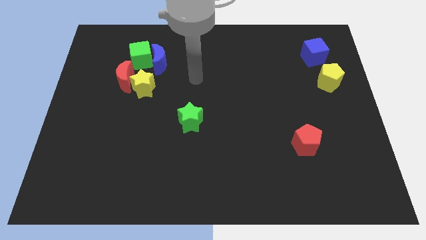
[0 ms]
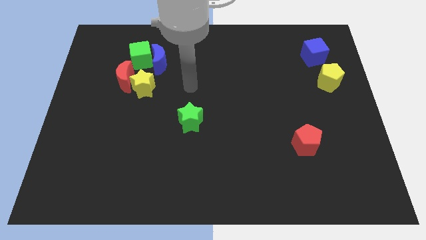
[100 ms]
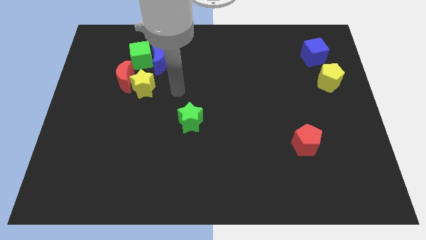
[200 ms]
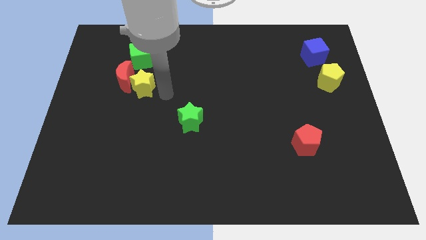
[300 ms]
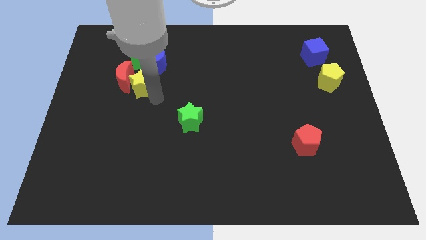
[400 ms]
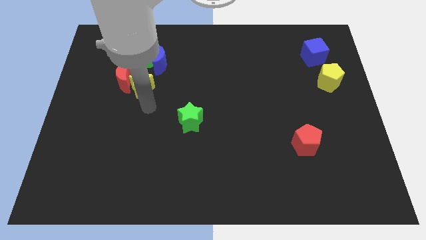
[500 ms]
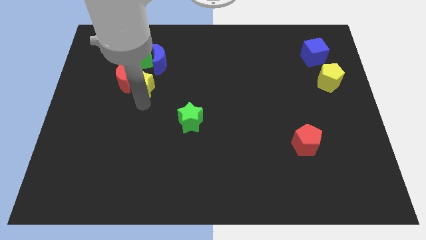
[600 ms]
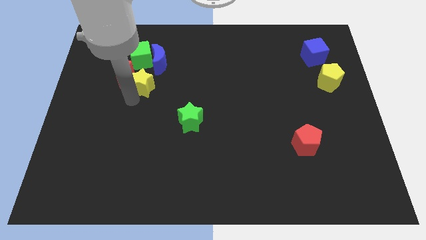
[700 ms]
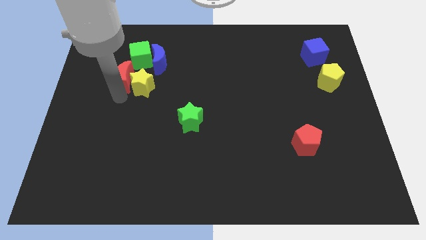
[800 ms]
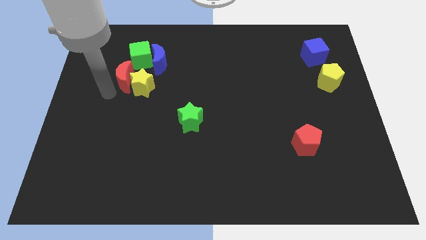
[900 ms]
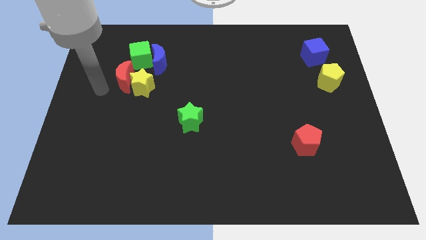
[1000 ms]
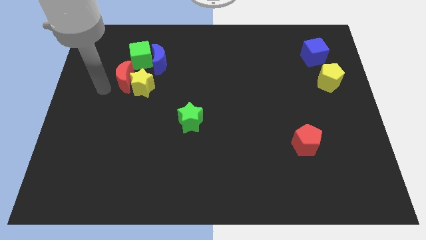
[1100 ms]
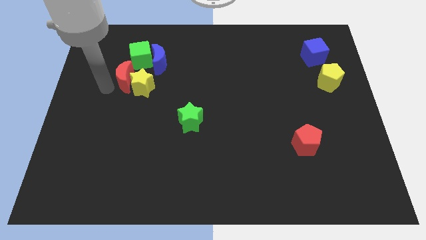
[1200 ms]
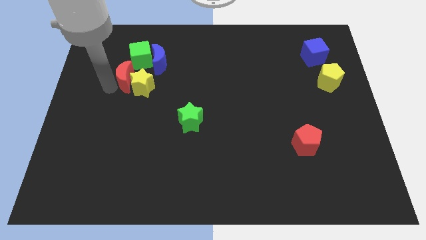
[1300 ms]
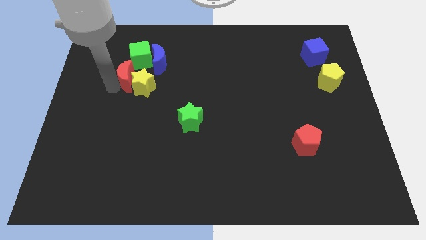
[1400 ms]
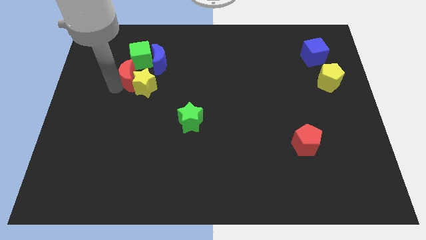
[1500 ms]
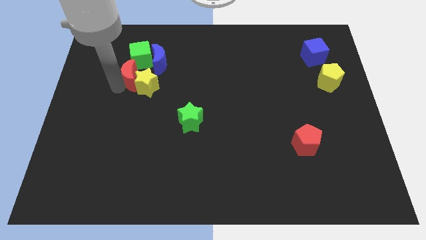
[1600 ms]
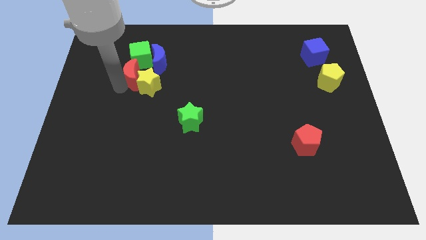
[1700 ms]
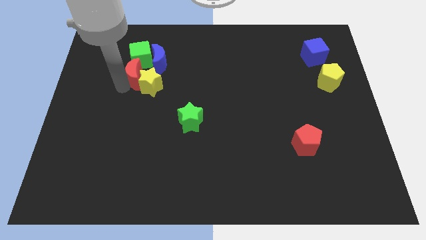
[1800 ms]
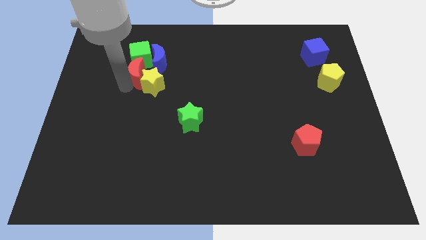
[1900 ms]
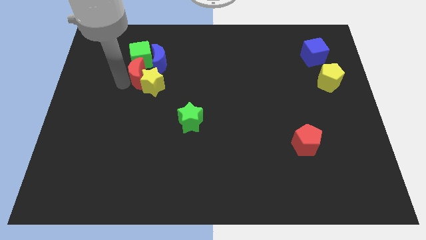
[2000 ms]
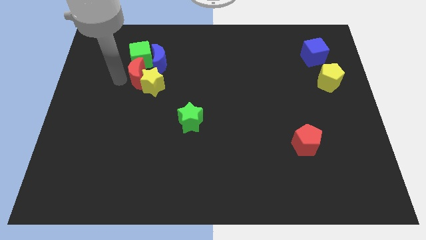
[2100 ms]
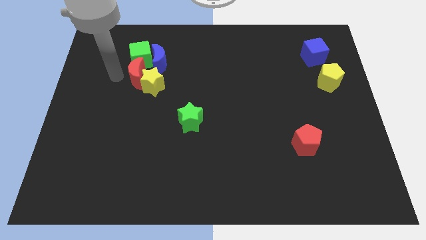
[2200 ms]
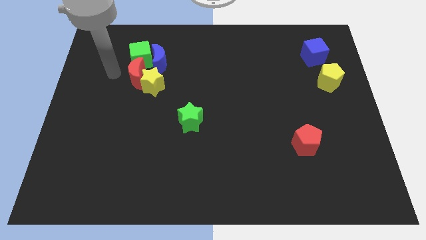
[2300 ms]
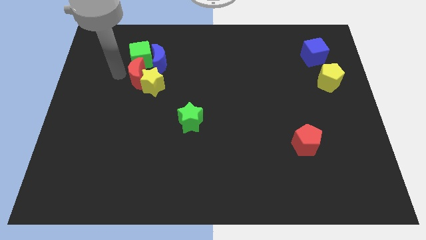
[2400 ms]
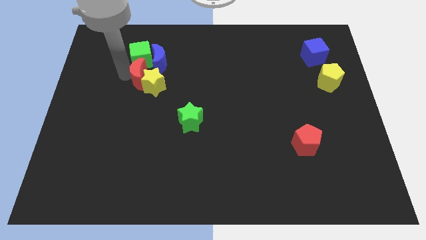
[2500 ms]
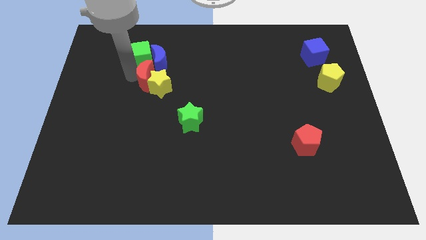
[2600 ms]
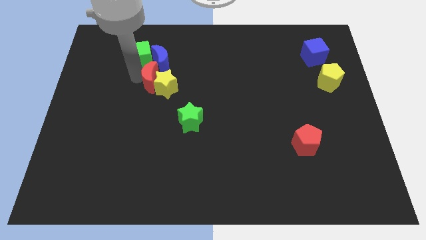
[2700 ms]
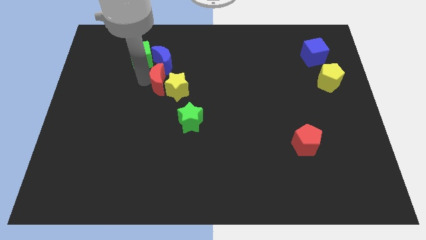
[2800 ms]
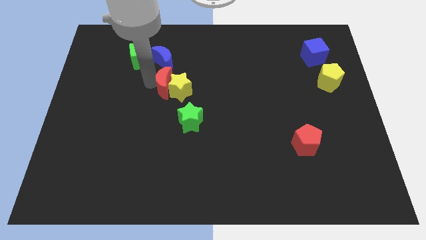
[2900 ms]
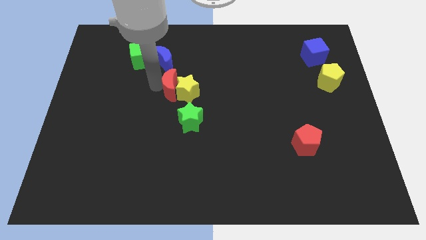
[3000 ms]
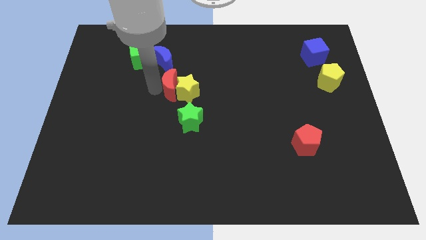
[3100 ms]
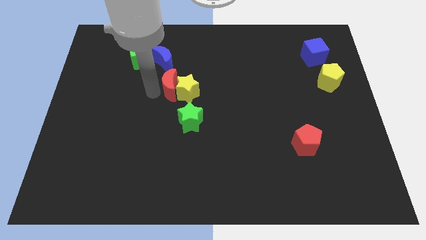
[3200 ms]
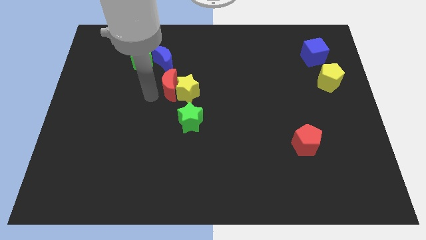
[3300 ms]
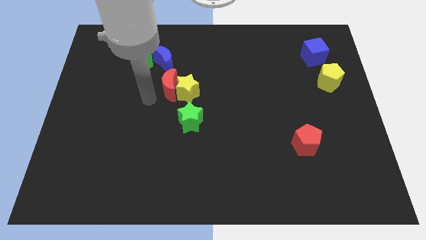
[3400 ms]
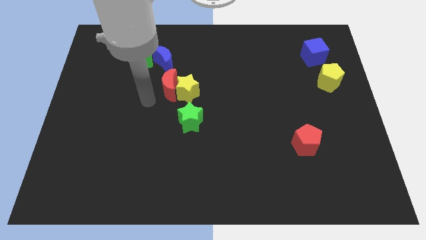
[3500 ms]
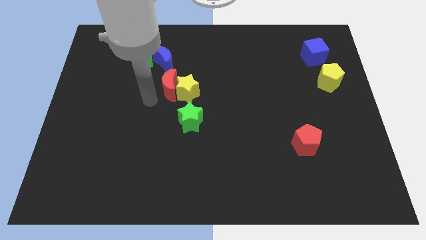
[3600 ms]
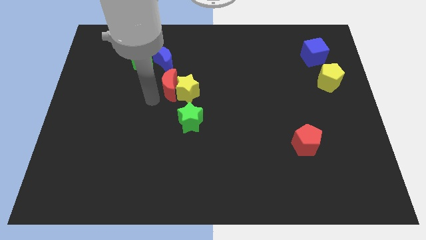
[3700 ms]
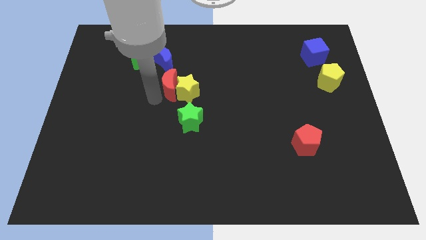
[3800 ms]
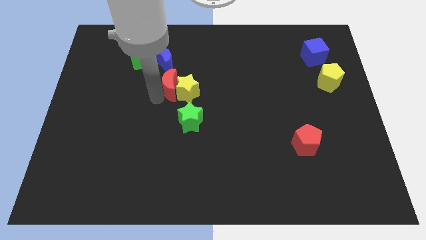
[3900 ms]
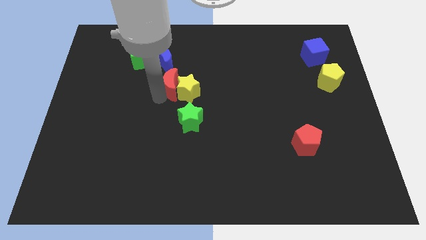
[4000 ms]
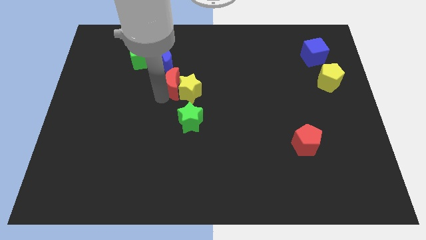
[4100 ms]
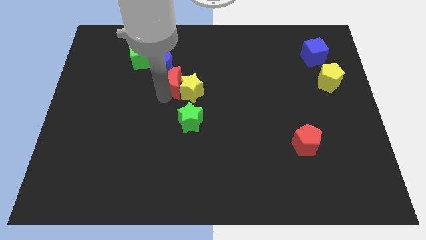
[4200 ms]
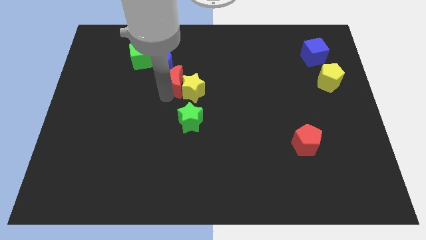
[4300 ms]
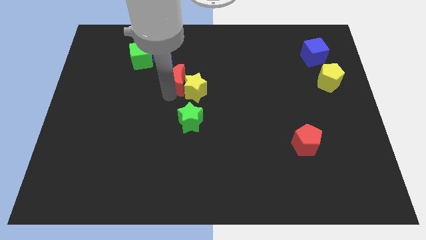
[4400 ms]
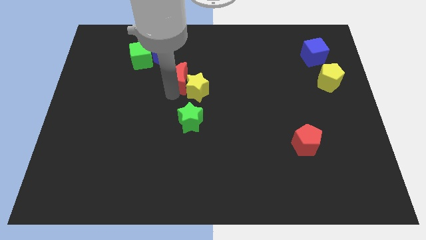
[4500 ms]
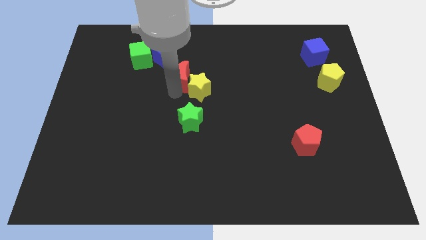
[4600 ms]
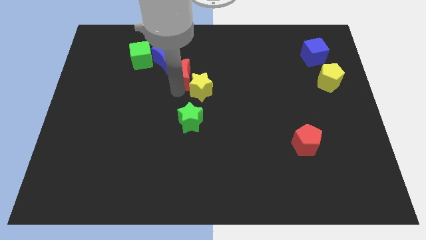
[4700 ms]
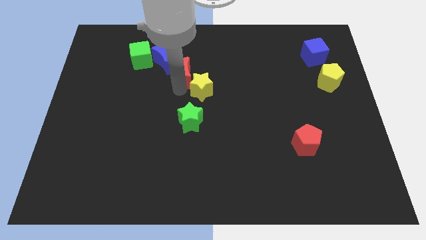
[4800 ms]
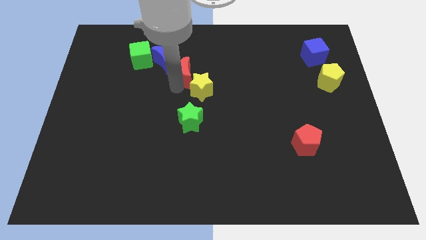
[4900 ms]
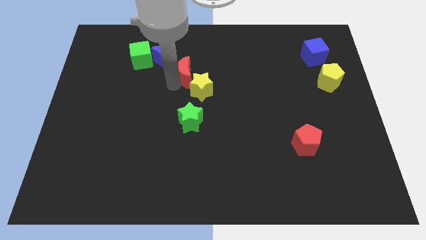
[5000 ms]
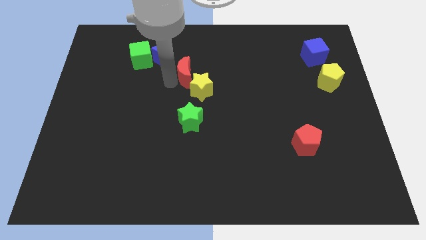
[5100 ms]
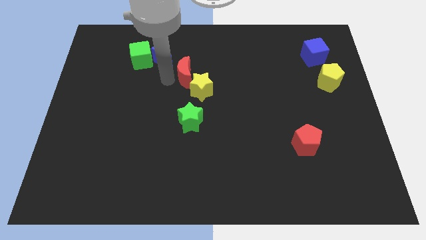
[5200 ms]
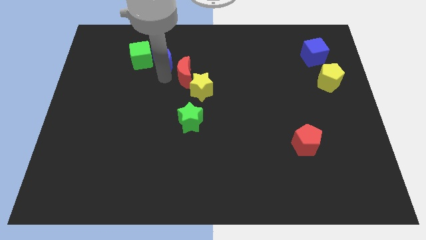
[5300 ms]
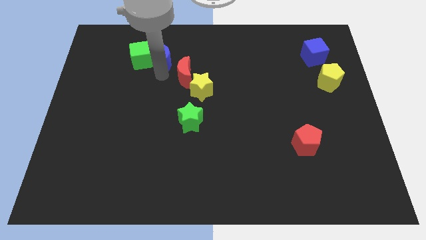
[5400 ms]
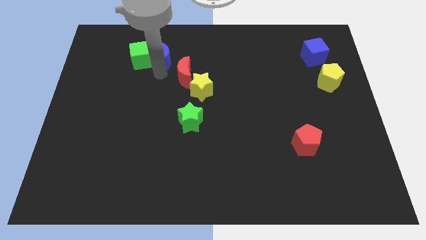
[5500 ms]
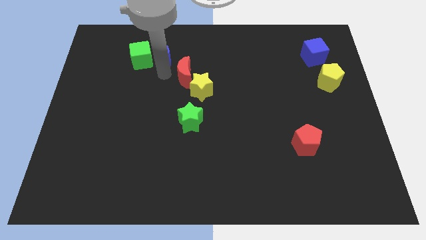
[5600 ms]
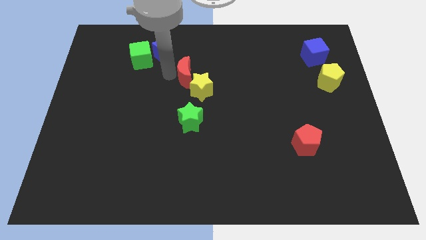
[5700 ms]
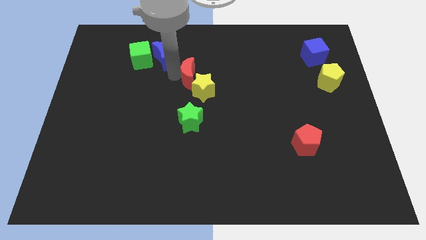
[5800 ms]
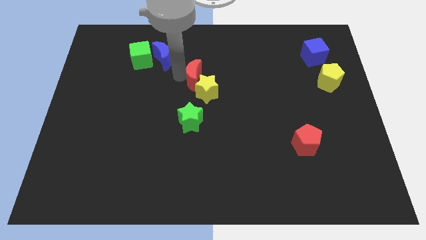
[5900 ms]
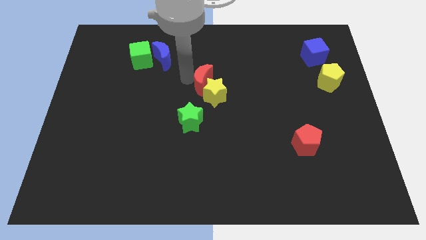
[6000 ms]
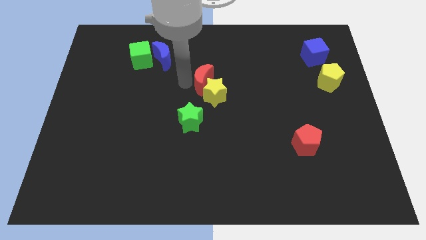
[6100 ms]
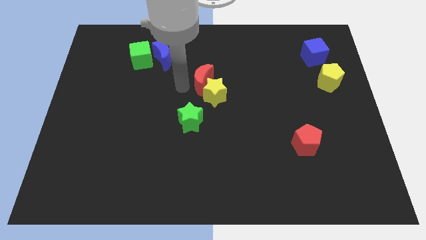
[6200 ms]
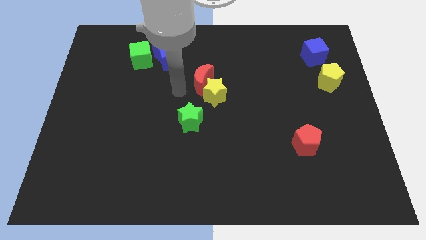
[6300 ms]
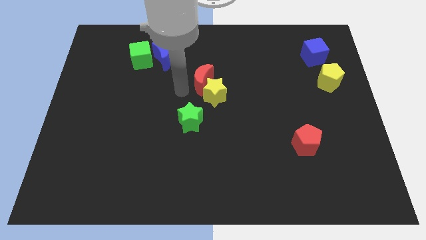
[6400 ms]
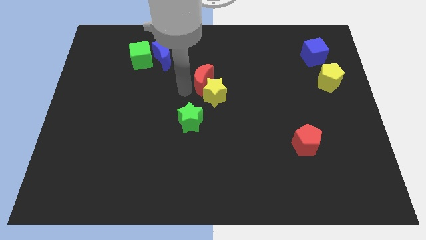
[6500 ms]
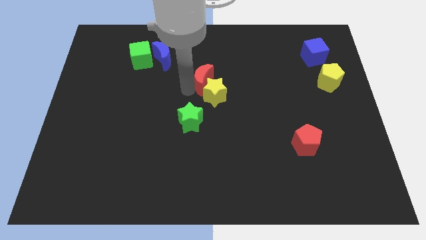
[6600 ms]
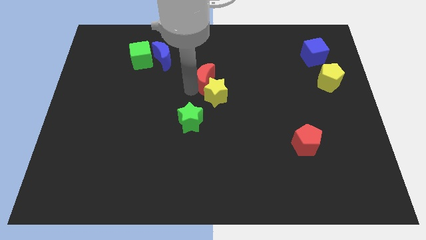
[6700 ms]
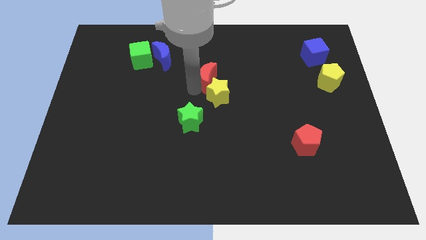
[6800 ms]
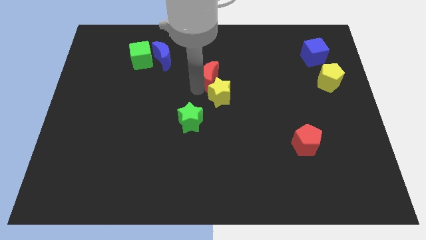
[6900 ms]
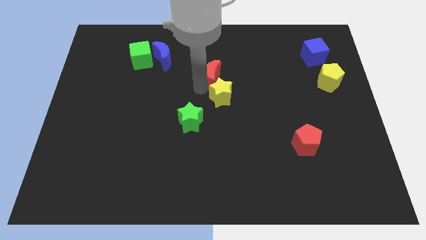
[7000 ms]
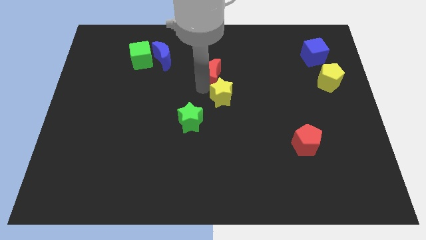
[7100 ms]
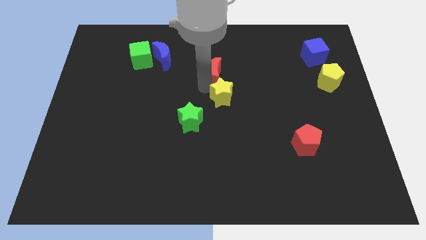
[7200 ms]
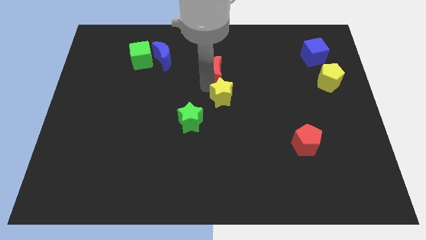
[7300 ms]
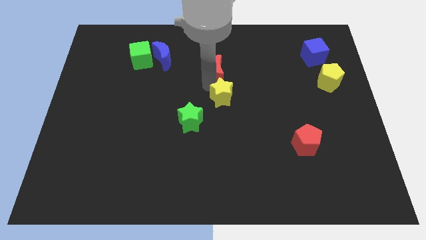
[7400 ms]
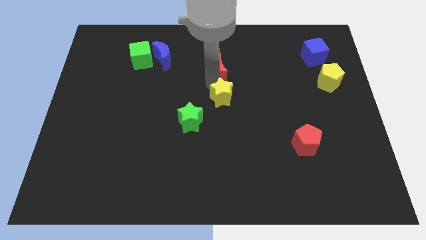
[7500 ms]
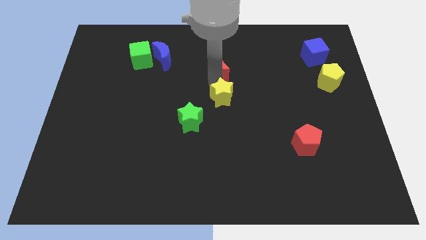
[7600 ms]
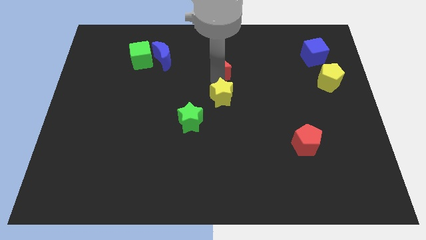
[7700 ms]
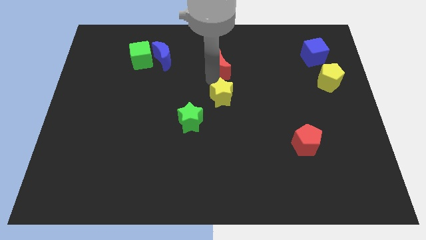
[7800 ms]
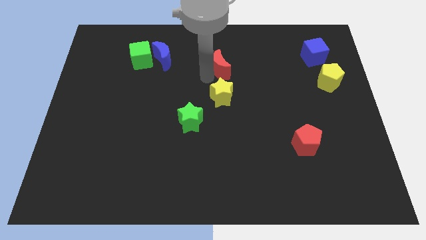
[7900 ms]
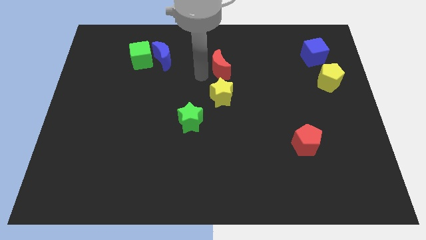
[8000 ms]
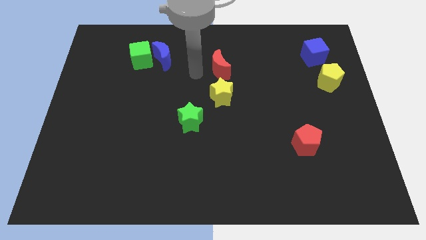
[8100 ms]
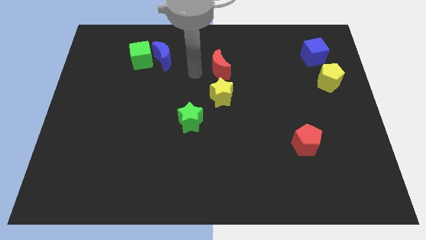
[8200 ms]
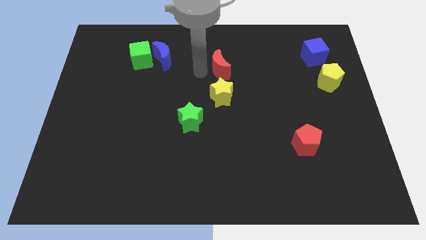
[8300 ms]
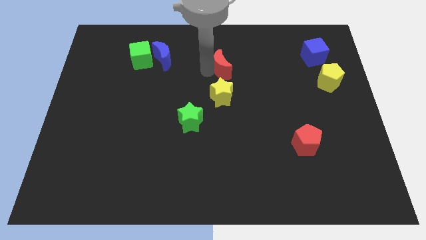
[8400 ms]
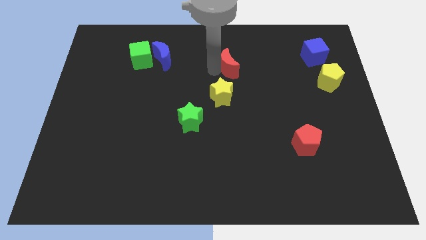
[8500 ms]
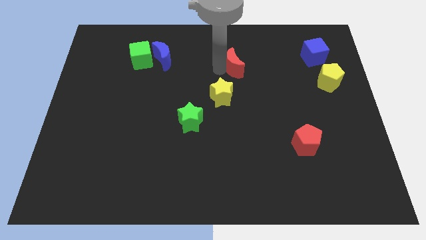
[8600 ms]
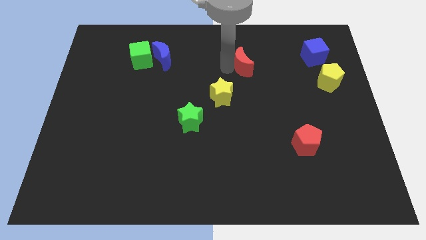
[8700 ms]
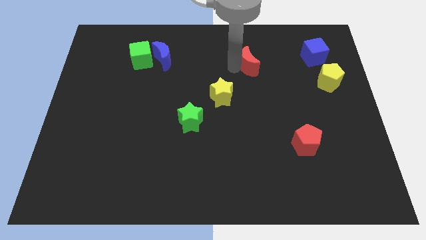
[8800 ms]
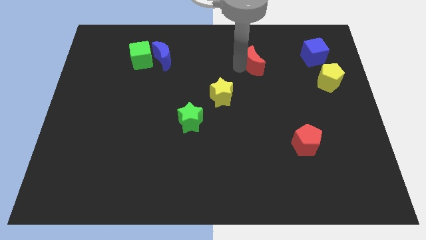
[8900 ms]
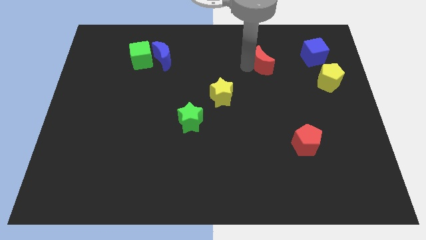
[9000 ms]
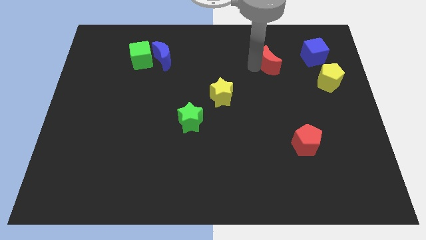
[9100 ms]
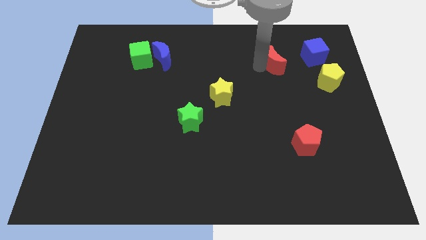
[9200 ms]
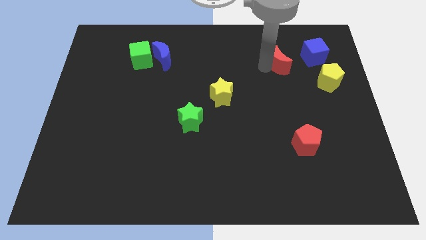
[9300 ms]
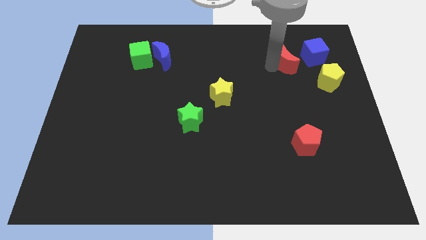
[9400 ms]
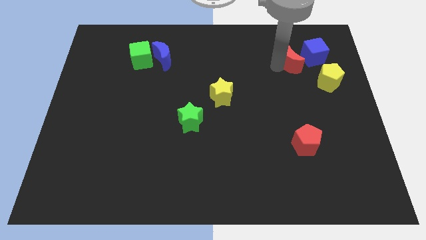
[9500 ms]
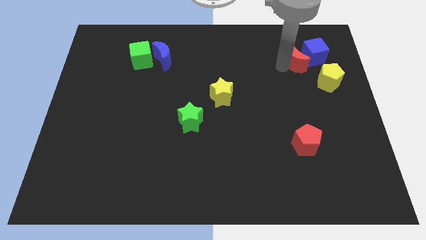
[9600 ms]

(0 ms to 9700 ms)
push the red moon close to the blue cube
